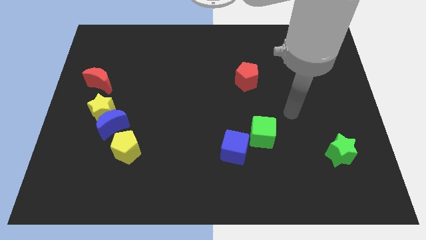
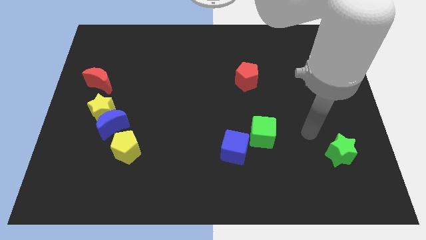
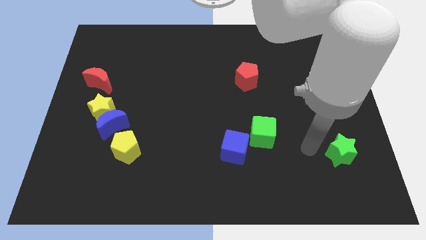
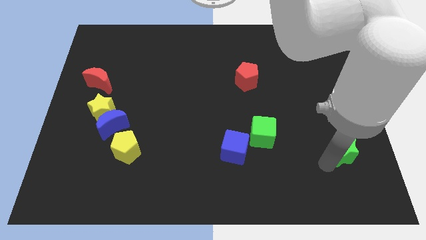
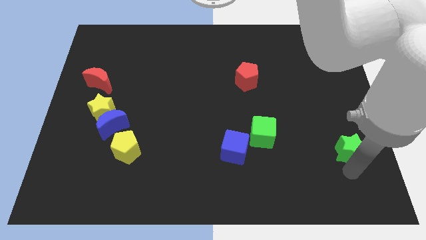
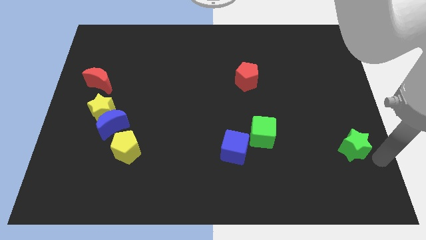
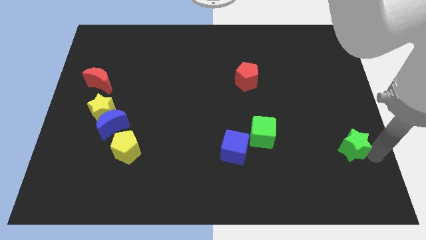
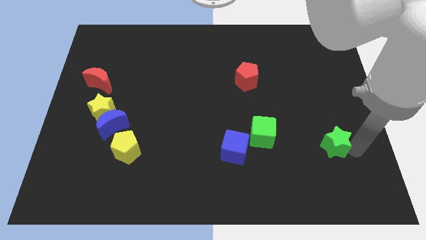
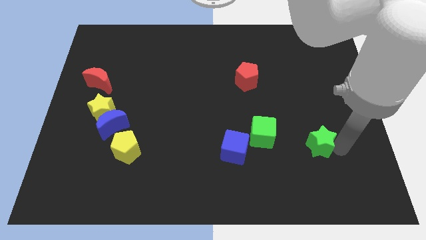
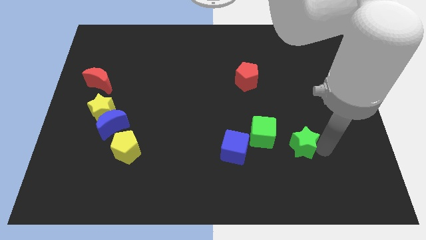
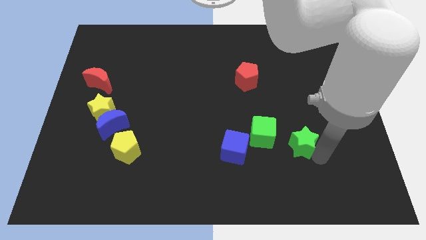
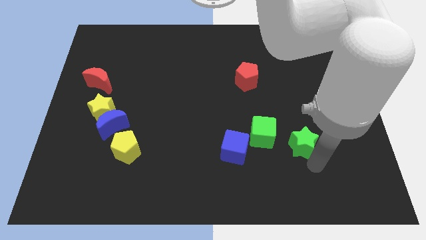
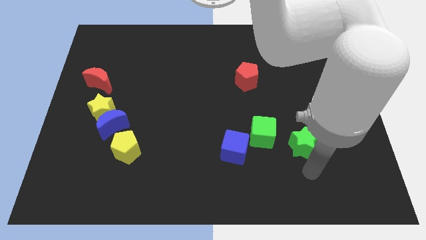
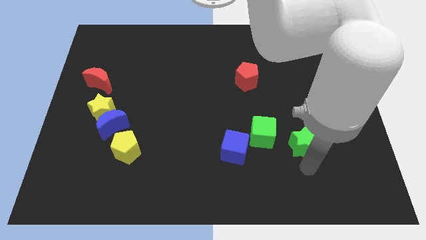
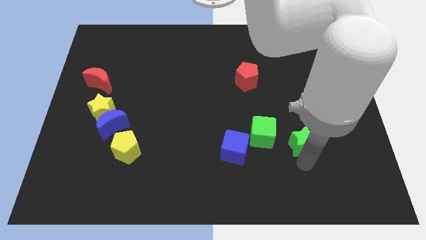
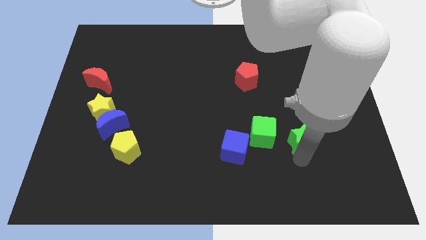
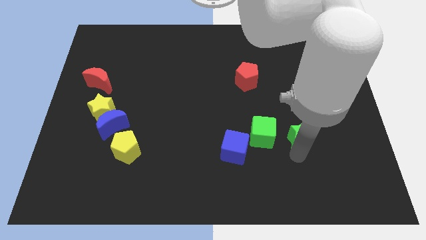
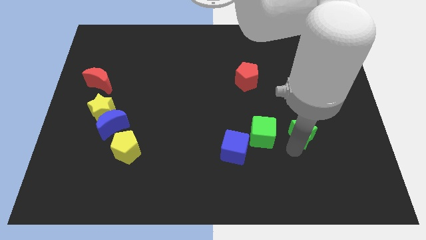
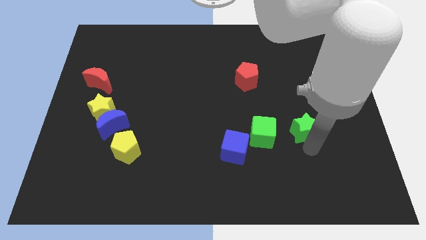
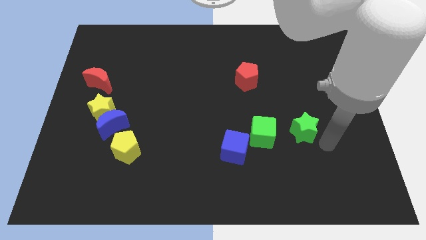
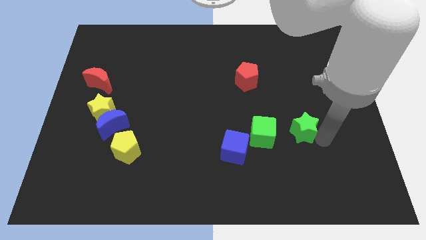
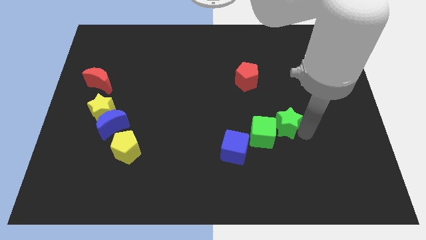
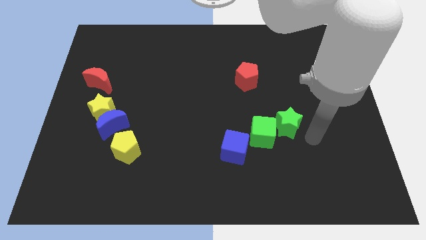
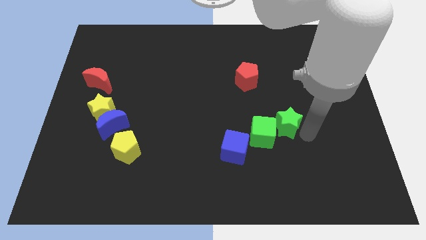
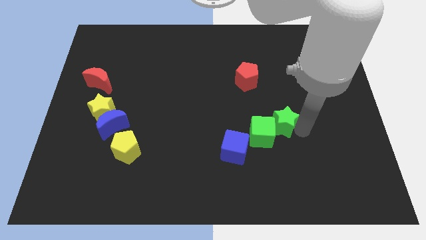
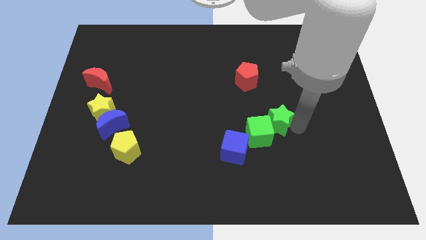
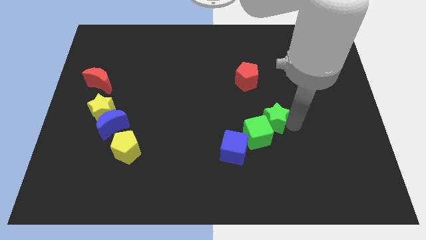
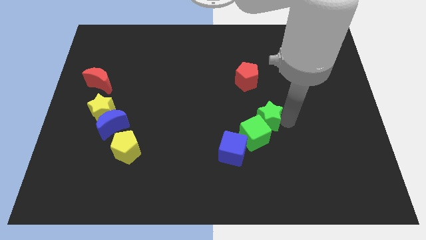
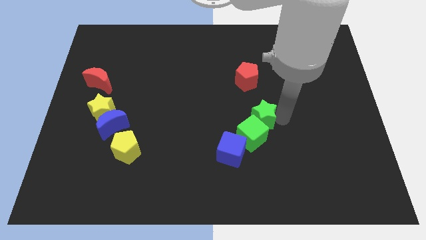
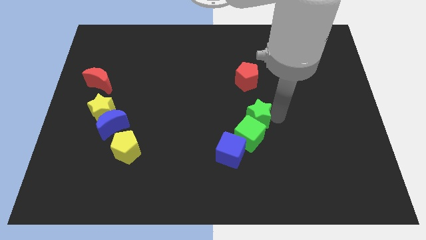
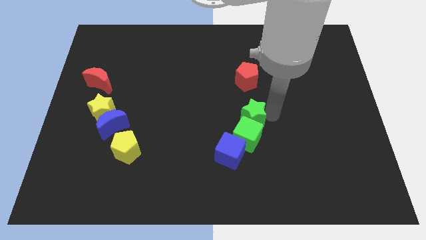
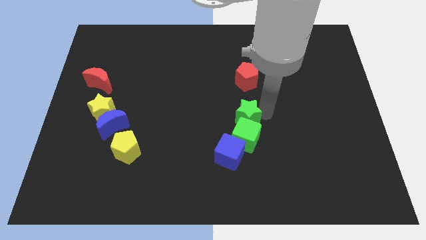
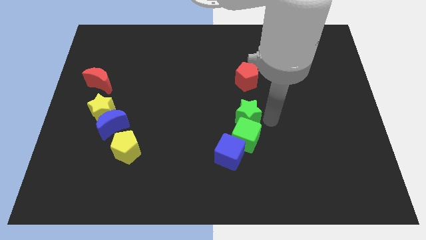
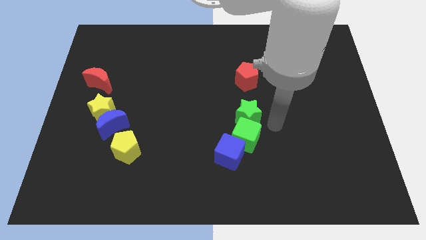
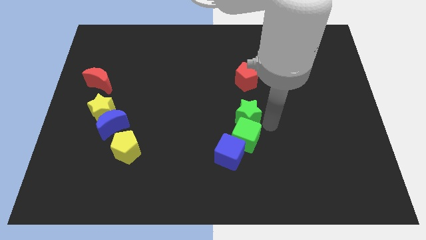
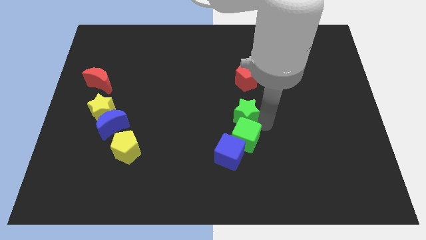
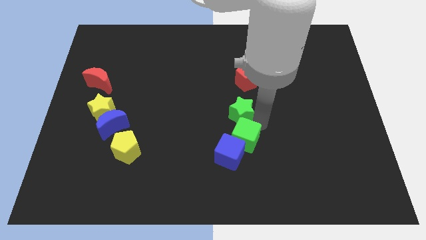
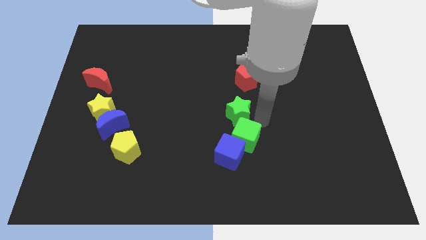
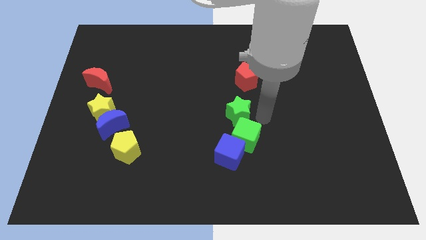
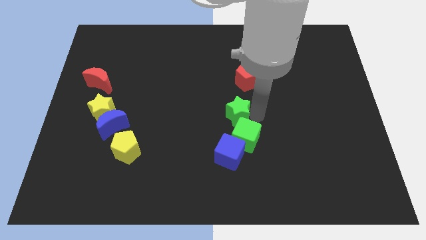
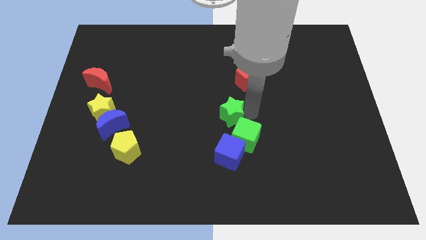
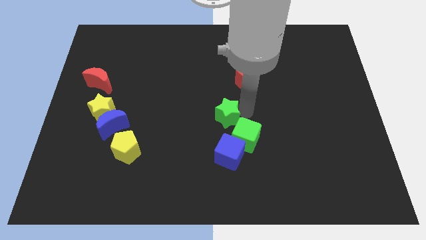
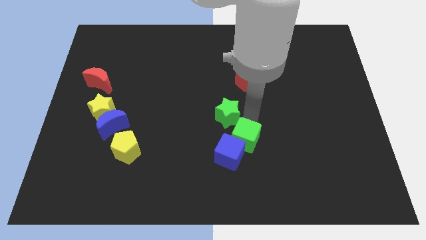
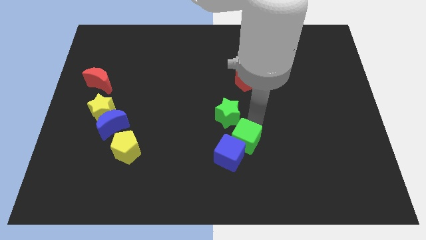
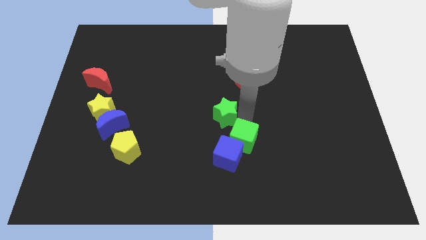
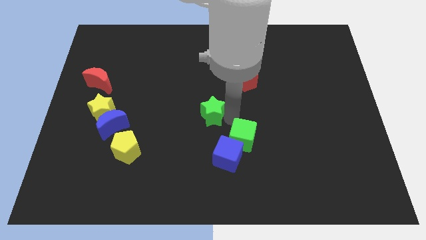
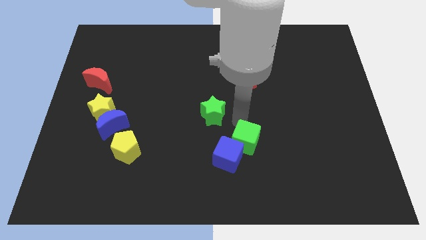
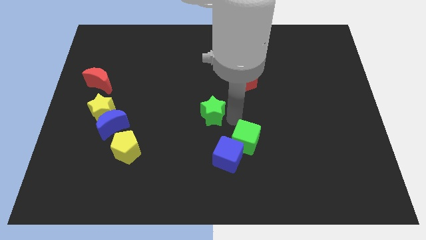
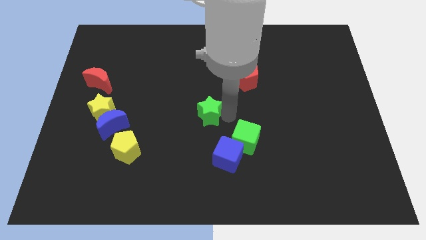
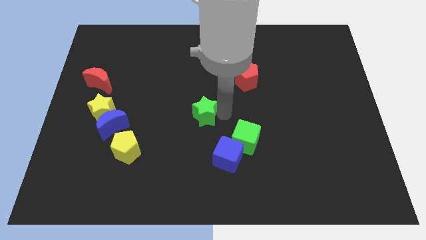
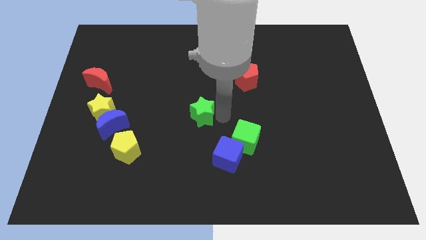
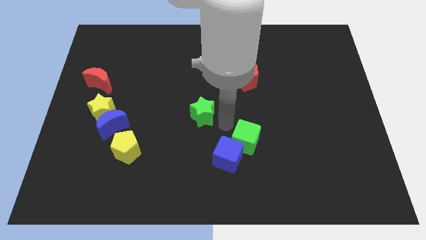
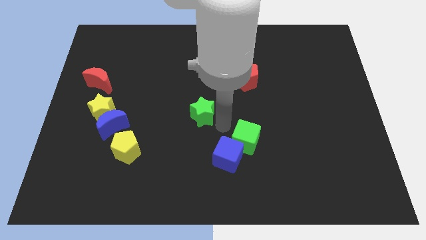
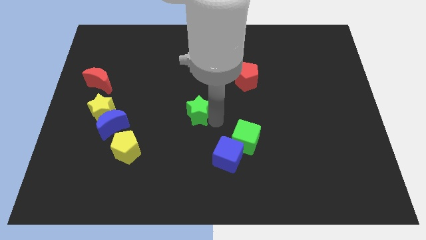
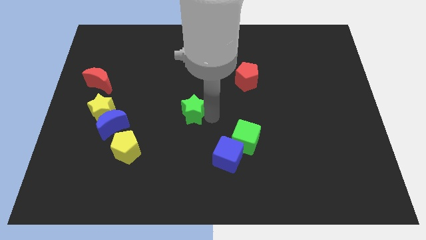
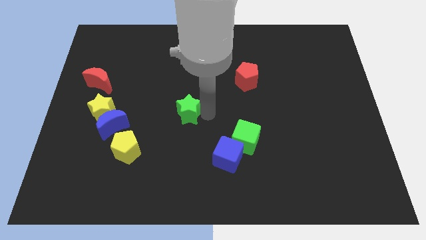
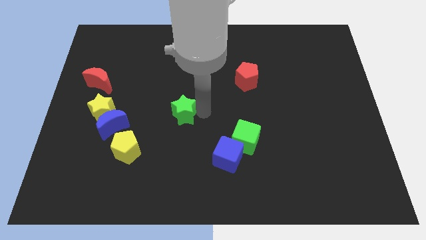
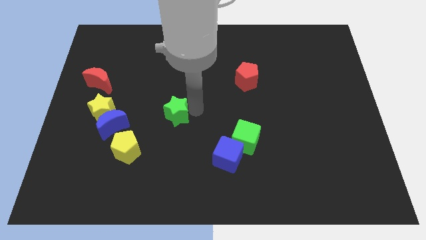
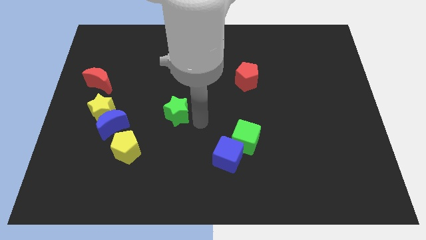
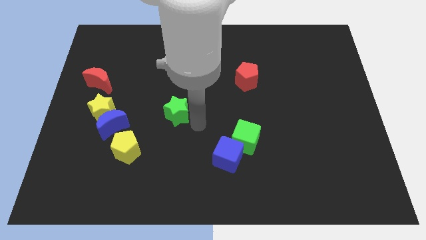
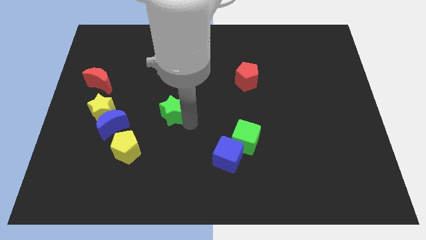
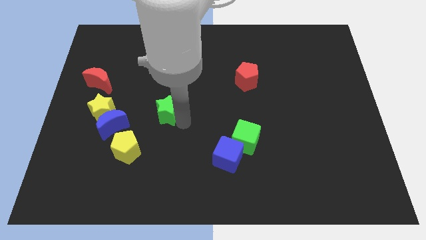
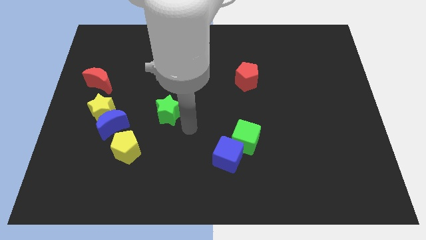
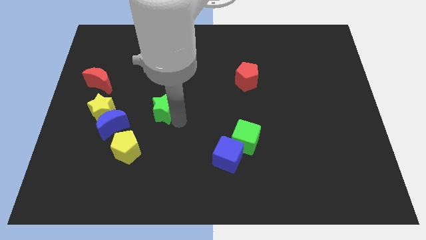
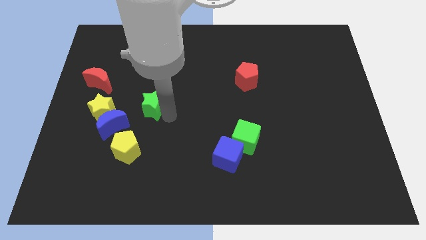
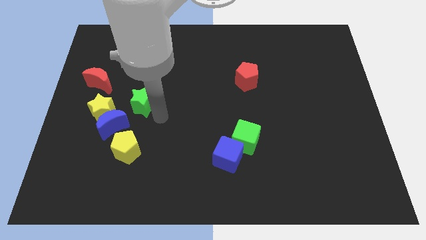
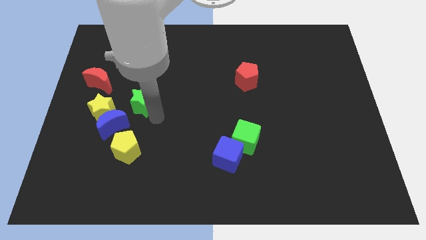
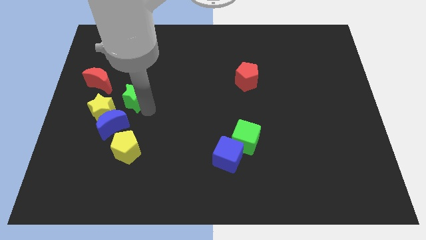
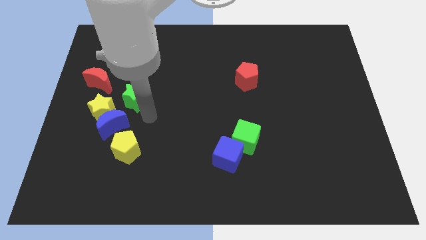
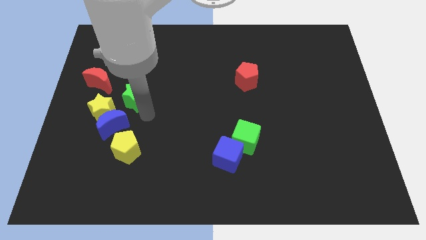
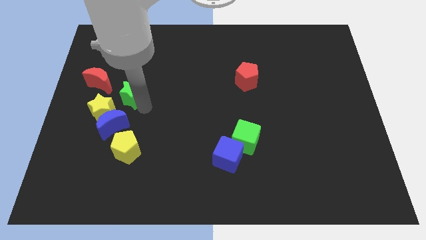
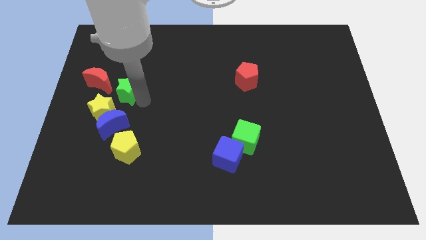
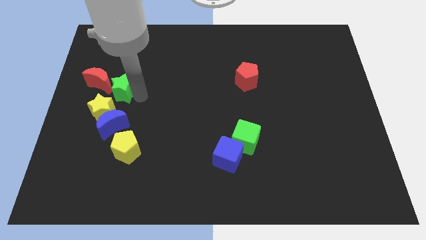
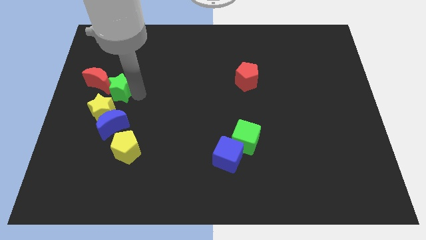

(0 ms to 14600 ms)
put the green star close to the red moon
